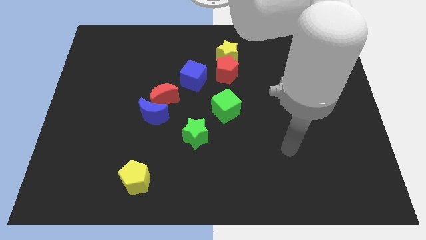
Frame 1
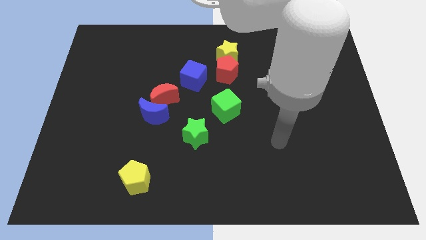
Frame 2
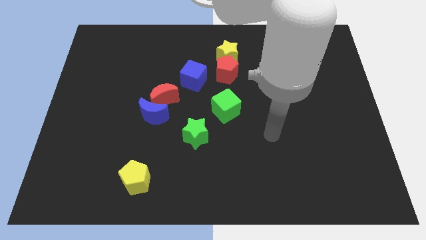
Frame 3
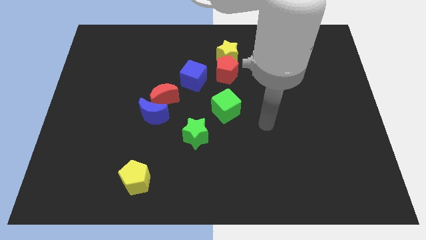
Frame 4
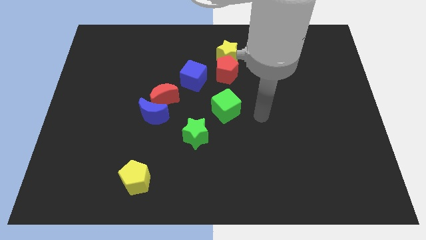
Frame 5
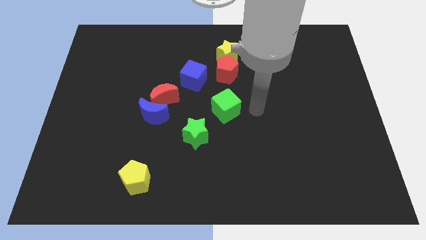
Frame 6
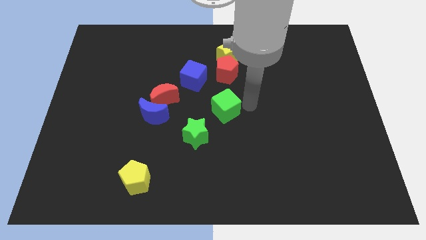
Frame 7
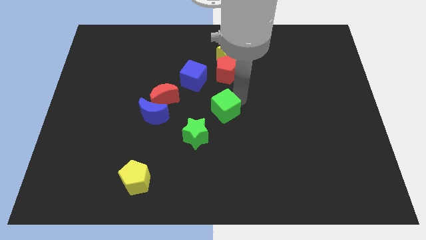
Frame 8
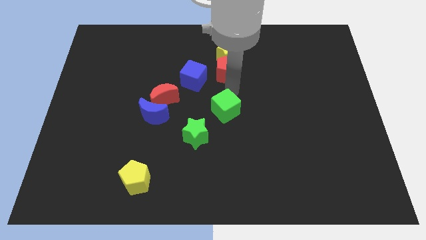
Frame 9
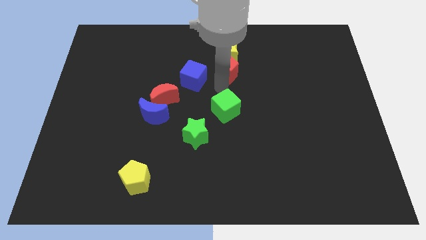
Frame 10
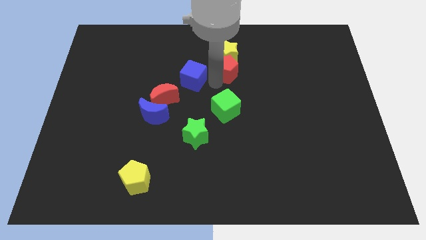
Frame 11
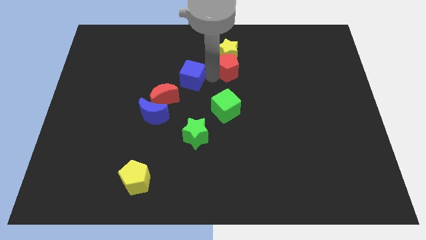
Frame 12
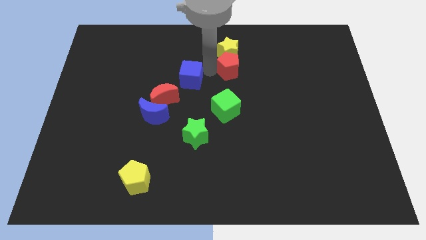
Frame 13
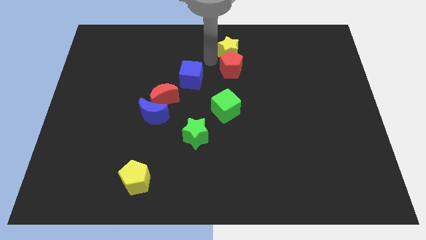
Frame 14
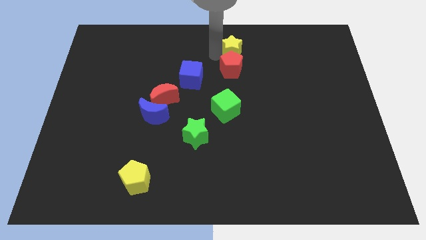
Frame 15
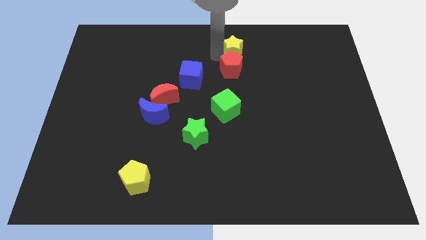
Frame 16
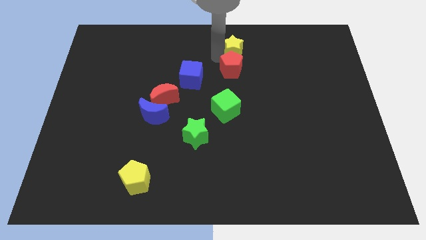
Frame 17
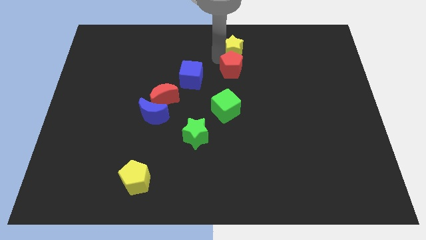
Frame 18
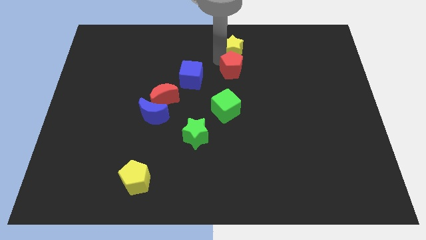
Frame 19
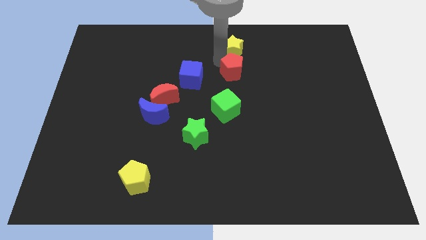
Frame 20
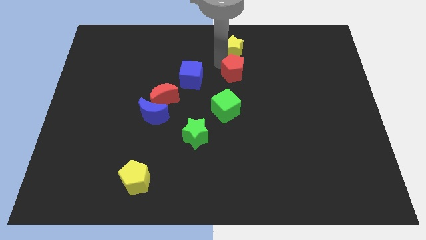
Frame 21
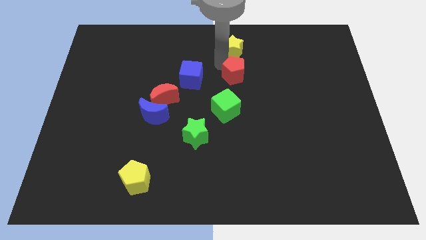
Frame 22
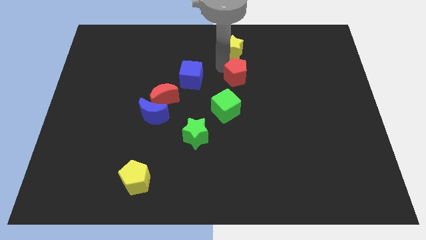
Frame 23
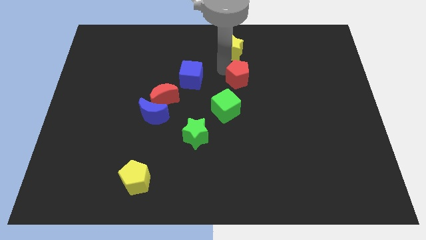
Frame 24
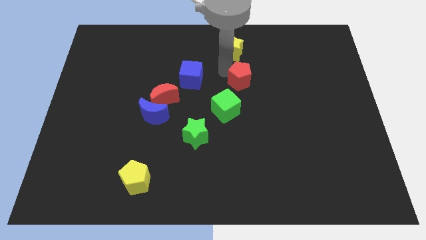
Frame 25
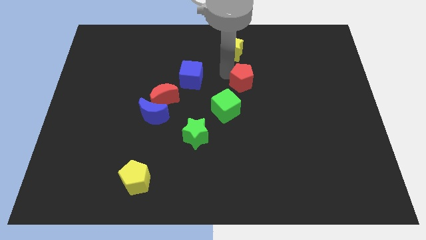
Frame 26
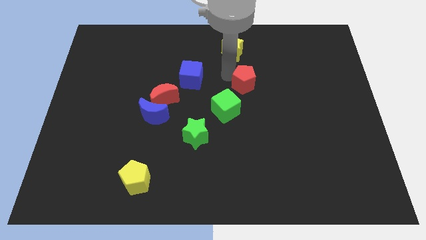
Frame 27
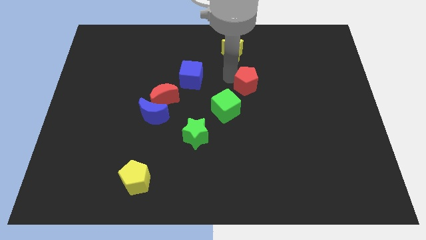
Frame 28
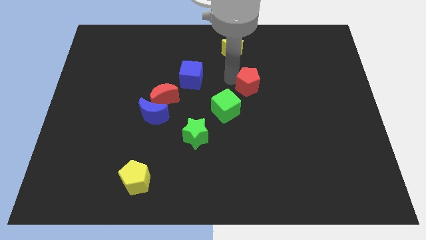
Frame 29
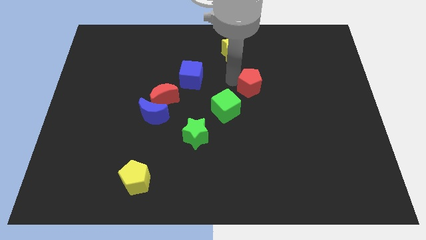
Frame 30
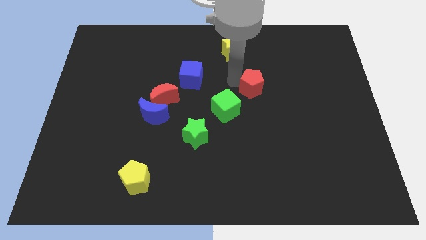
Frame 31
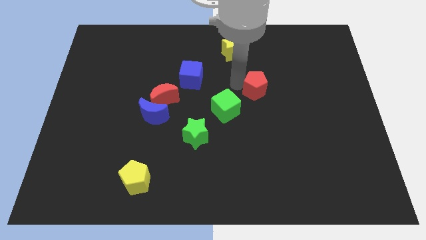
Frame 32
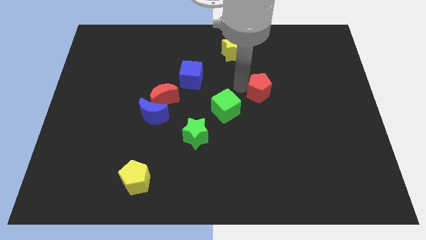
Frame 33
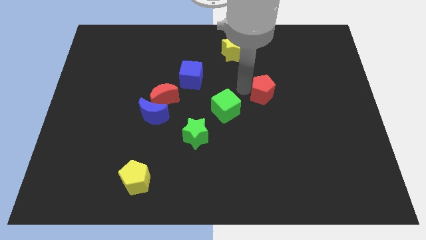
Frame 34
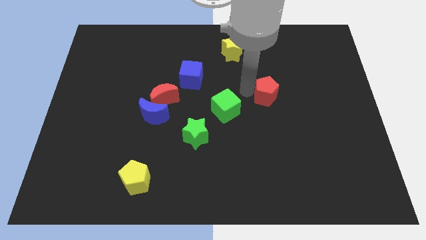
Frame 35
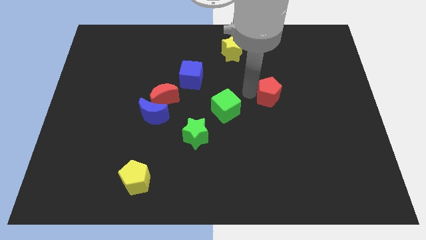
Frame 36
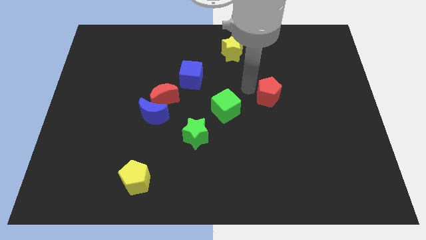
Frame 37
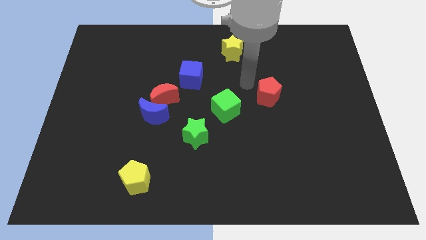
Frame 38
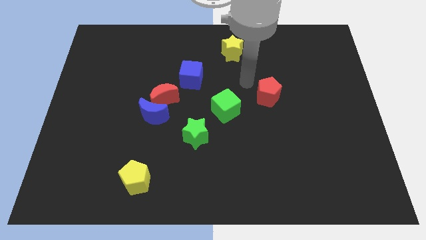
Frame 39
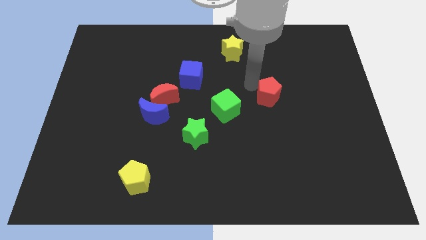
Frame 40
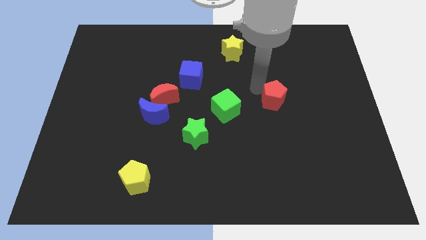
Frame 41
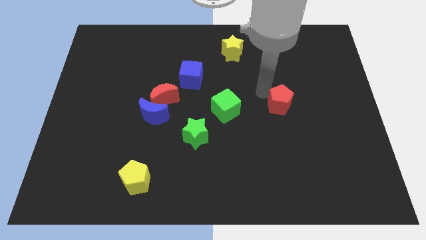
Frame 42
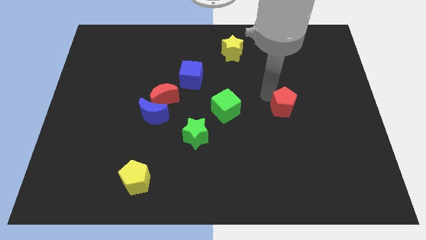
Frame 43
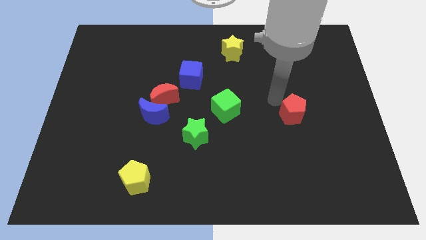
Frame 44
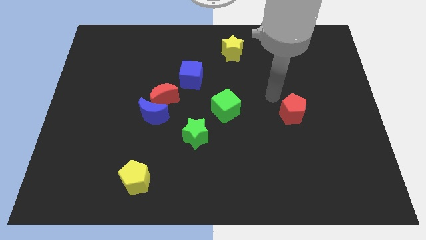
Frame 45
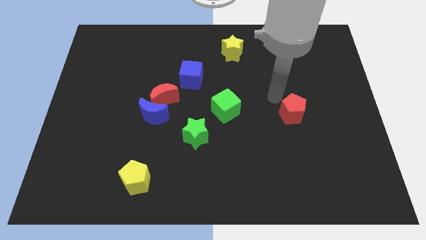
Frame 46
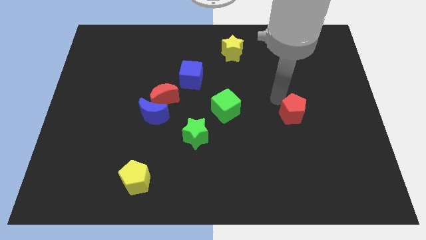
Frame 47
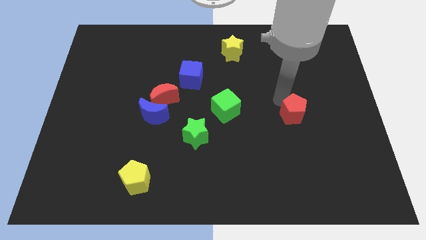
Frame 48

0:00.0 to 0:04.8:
slide the red pentagon diagonally down and right

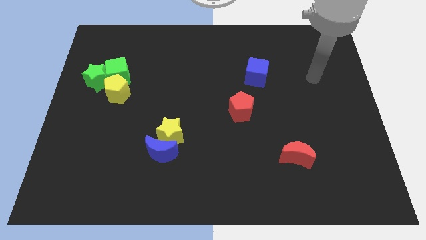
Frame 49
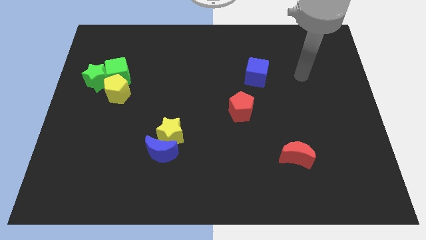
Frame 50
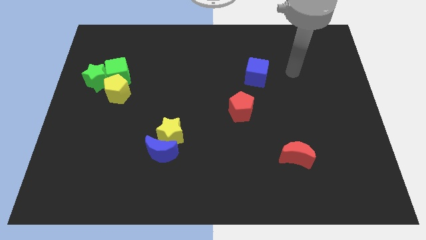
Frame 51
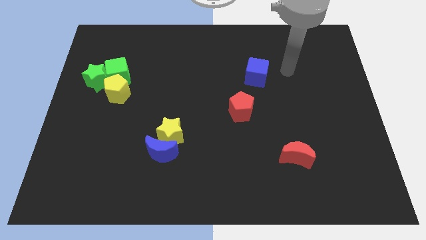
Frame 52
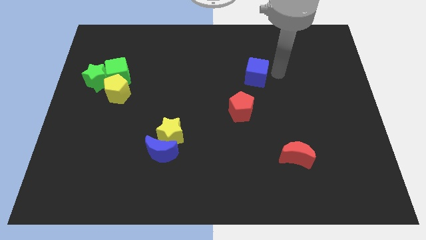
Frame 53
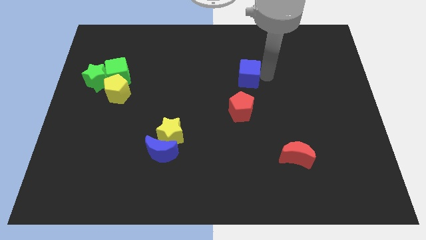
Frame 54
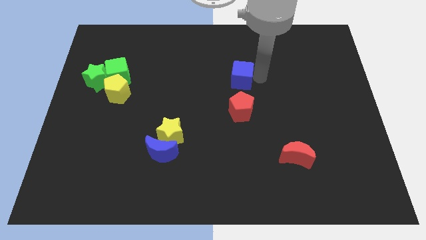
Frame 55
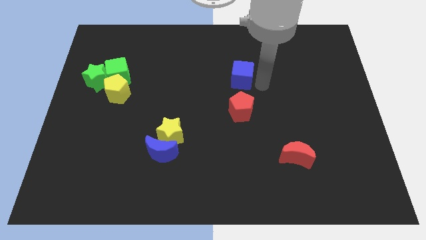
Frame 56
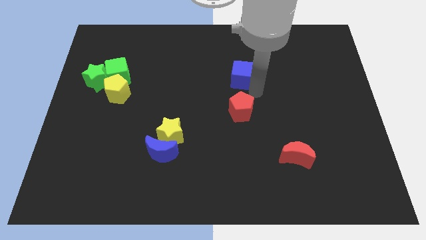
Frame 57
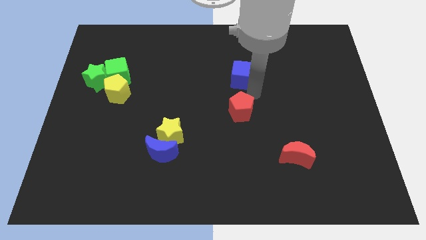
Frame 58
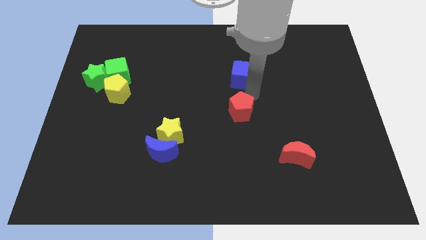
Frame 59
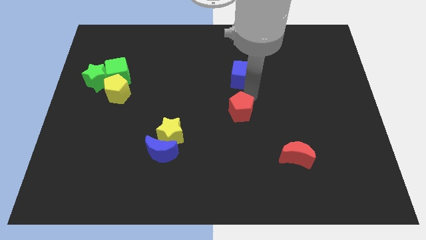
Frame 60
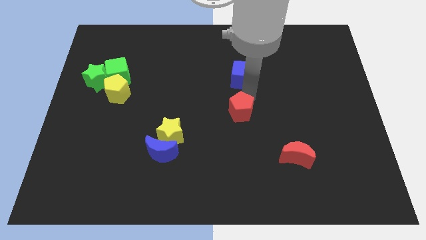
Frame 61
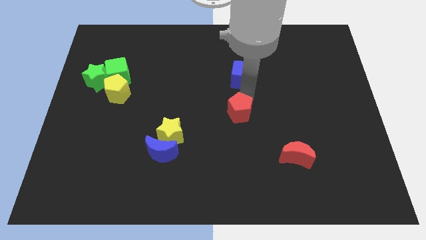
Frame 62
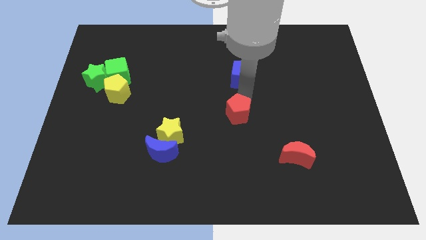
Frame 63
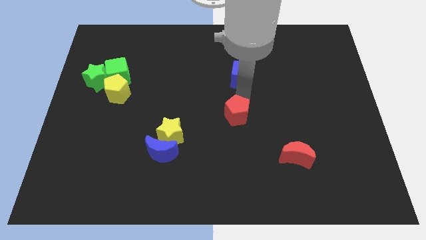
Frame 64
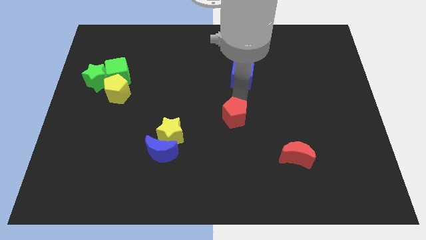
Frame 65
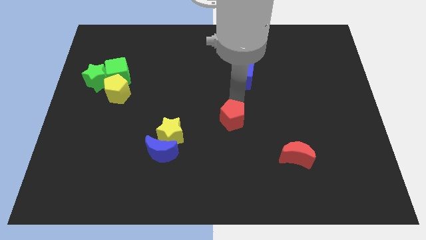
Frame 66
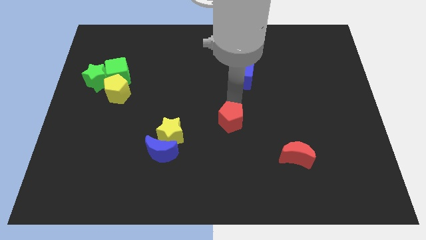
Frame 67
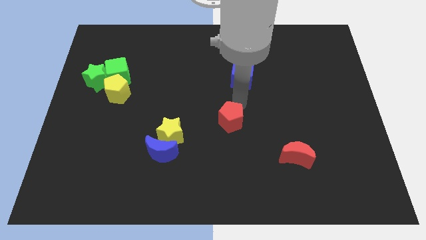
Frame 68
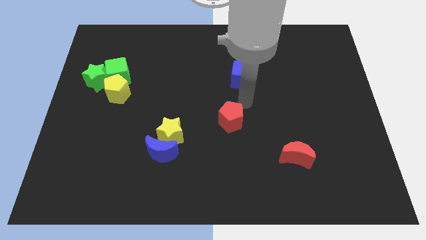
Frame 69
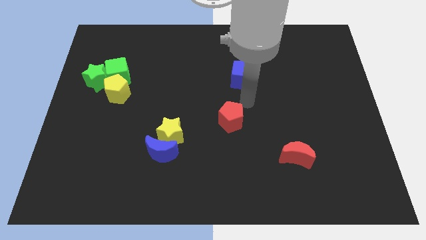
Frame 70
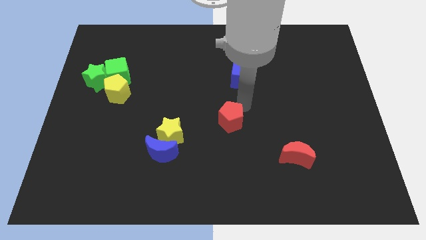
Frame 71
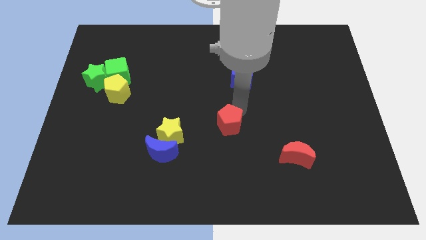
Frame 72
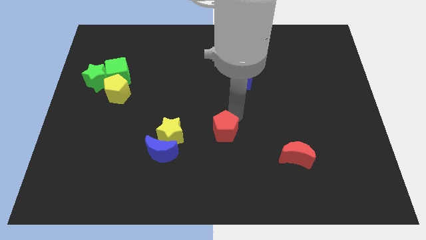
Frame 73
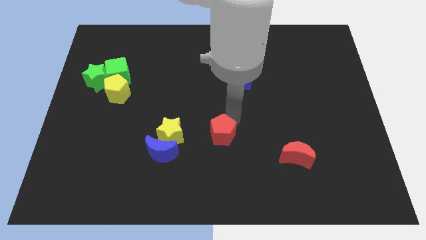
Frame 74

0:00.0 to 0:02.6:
move the red pentagon a bit diagonally downwards and to the left

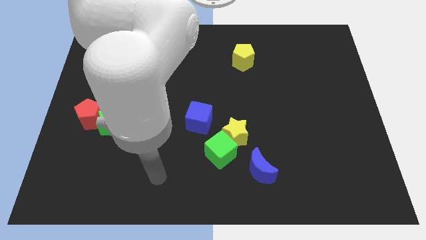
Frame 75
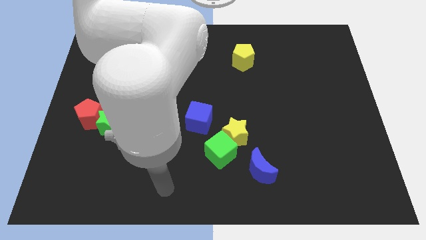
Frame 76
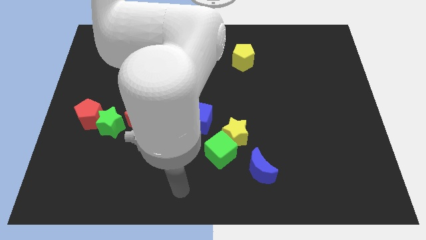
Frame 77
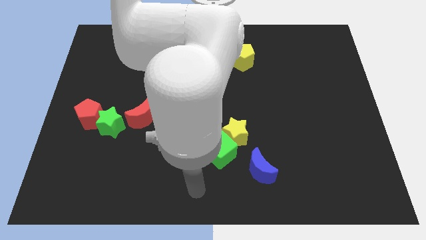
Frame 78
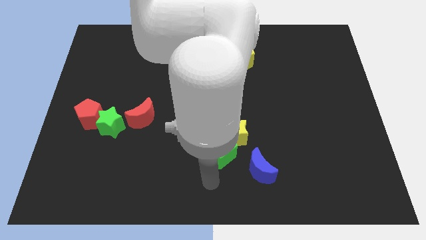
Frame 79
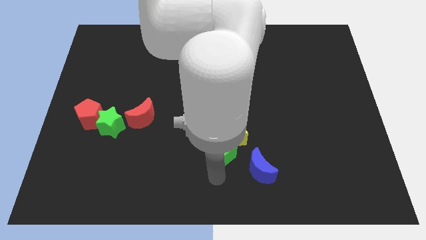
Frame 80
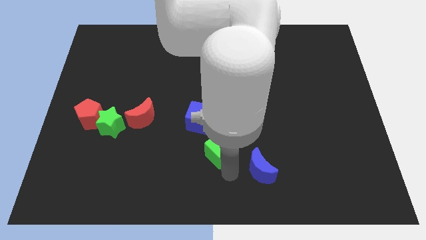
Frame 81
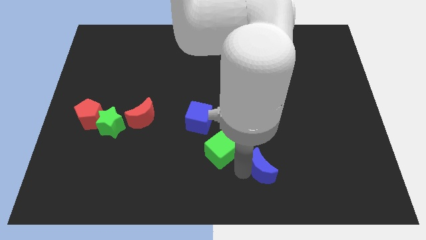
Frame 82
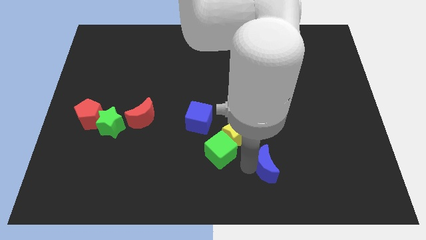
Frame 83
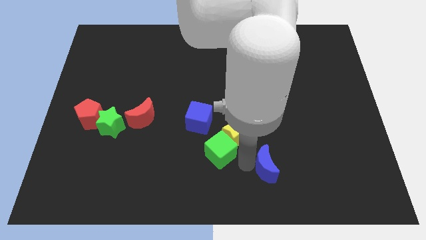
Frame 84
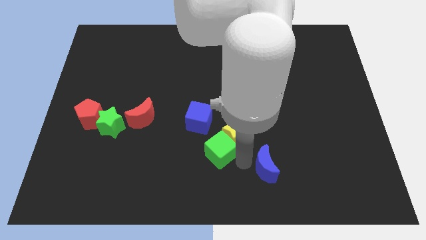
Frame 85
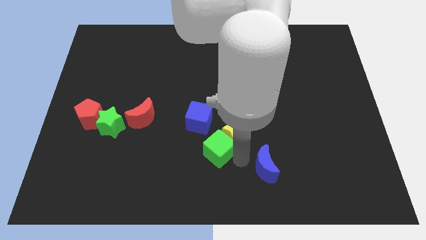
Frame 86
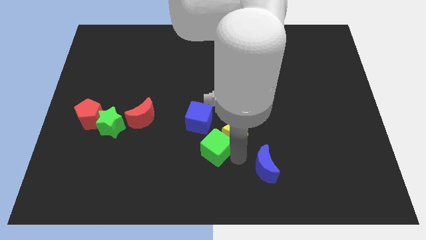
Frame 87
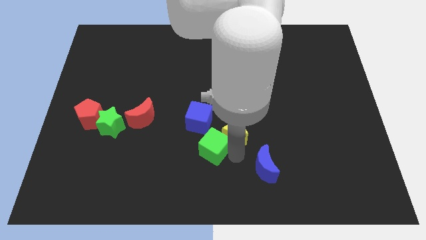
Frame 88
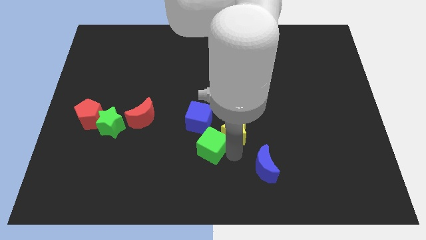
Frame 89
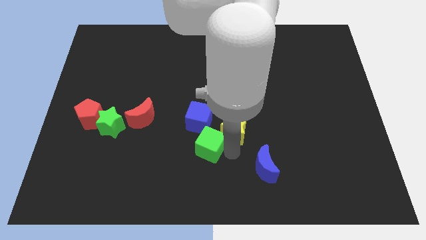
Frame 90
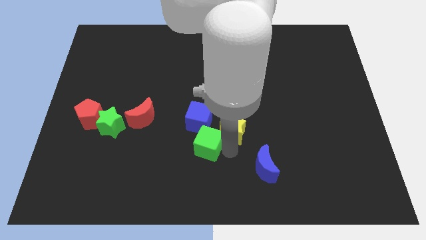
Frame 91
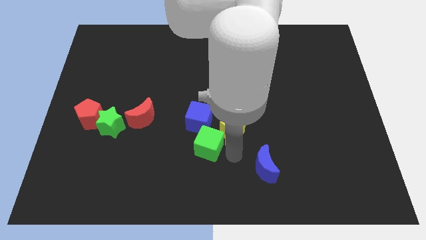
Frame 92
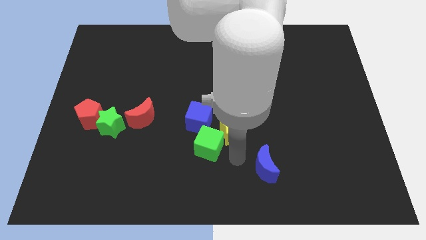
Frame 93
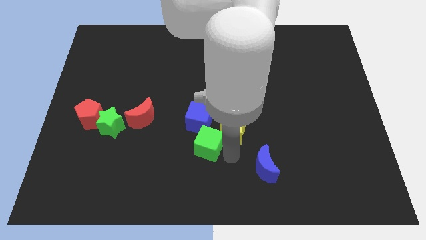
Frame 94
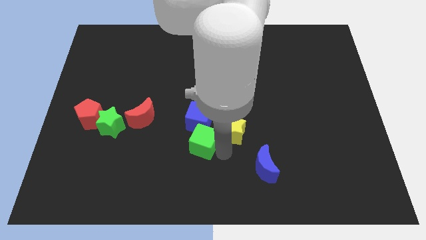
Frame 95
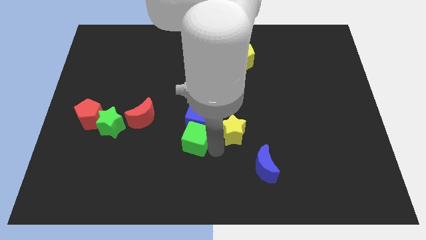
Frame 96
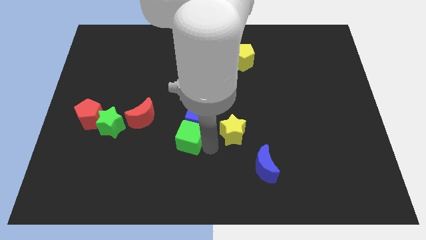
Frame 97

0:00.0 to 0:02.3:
move the green cube slightly up and then to the left
